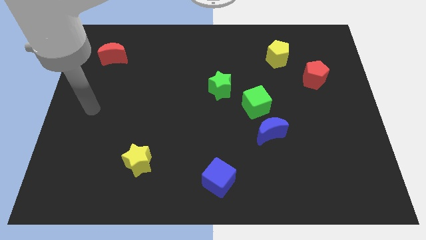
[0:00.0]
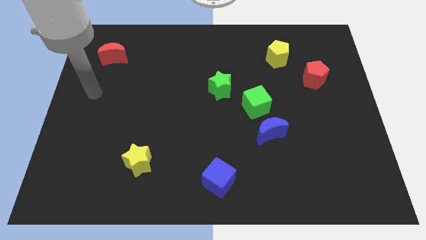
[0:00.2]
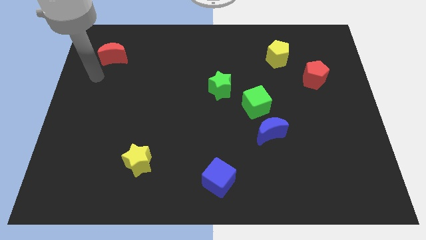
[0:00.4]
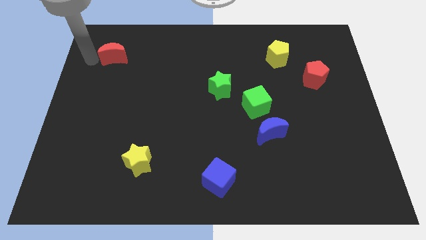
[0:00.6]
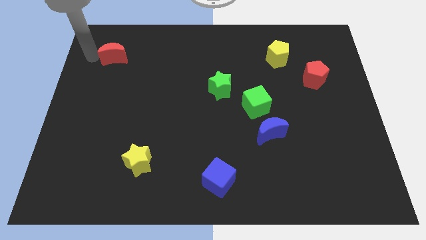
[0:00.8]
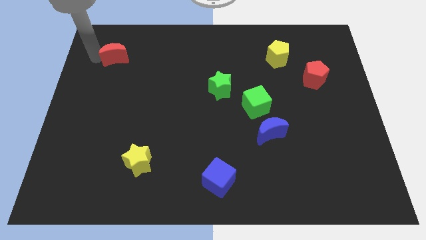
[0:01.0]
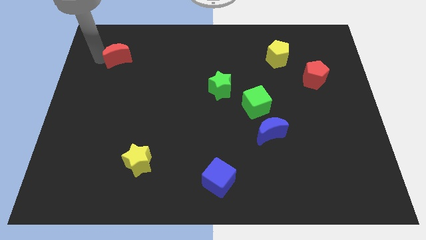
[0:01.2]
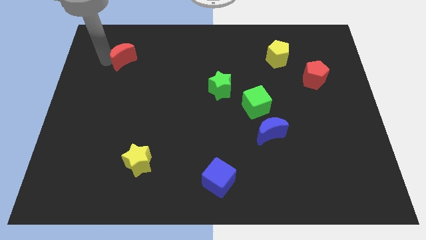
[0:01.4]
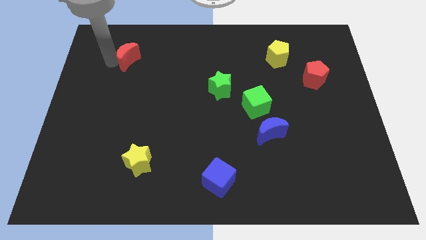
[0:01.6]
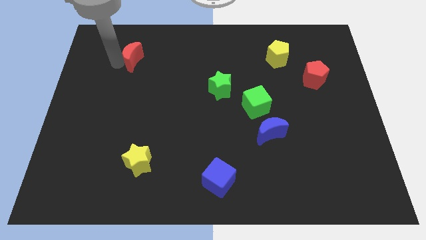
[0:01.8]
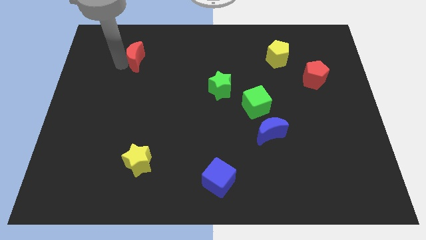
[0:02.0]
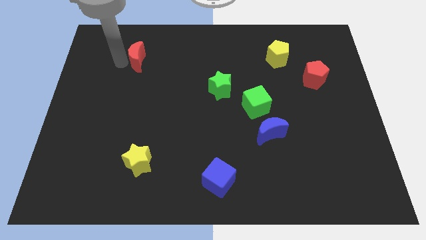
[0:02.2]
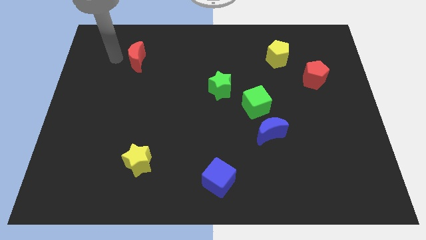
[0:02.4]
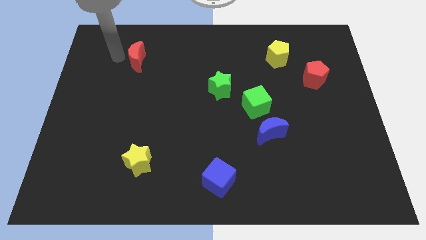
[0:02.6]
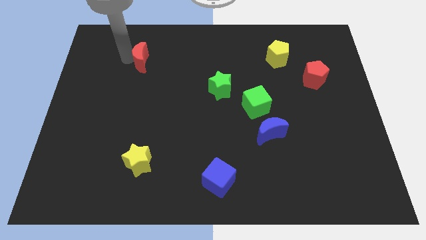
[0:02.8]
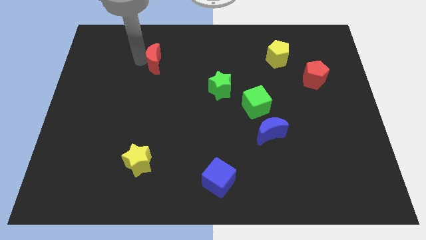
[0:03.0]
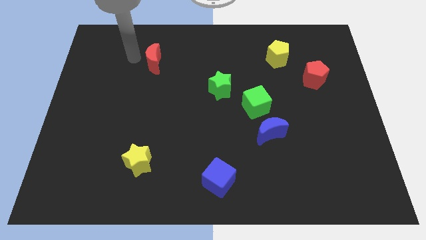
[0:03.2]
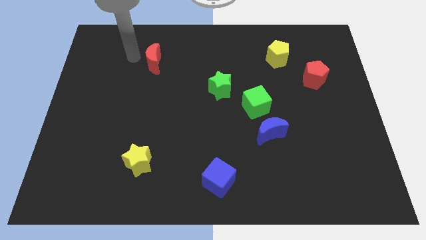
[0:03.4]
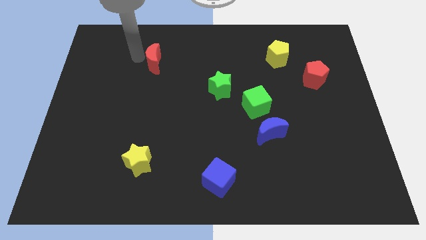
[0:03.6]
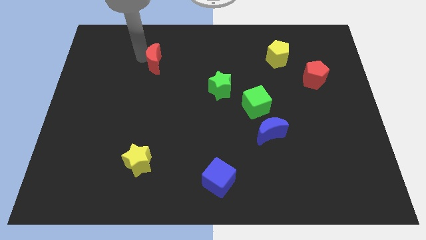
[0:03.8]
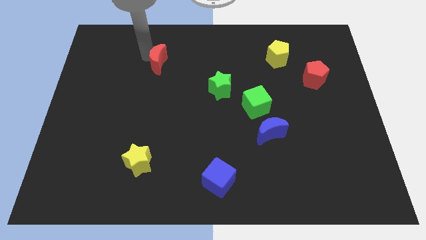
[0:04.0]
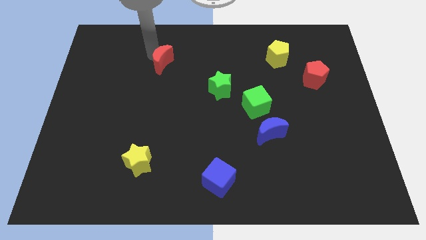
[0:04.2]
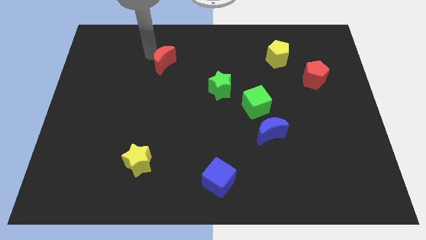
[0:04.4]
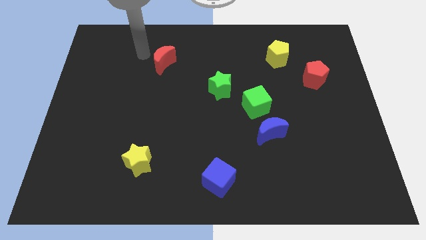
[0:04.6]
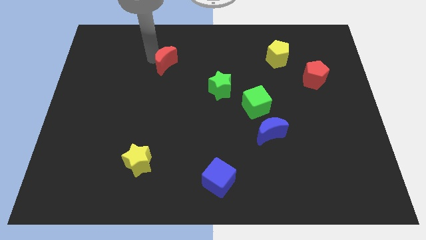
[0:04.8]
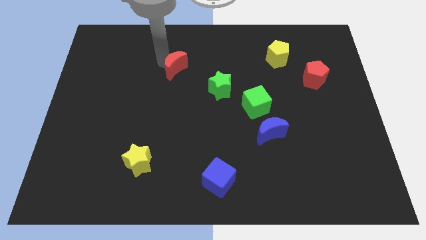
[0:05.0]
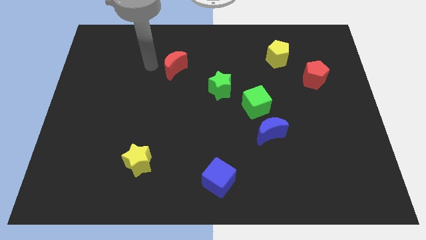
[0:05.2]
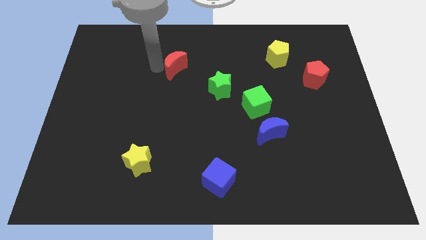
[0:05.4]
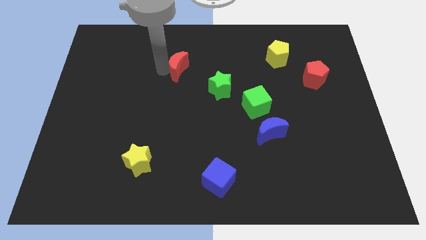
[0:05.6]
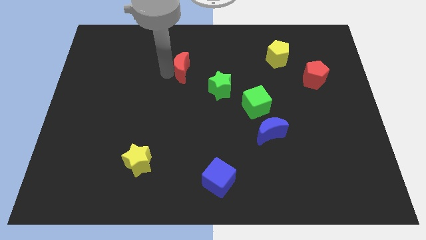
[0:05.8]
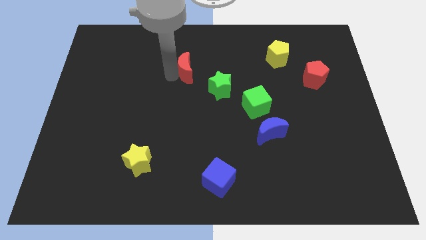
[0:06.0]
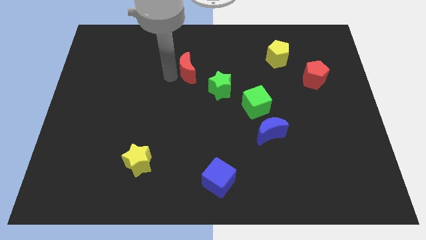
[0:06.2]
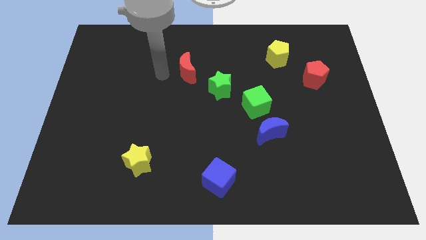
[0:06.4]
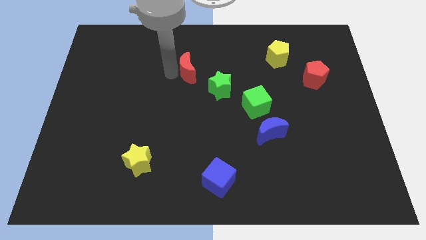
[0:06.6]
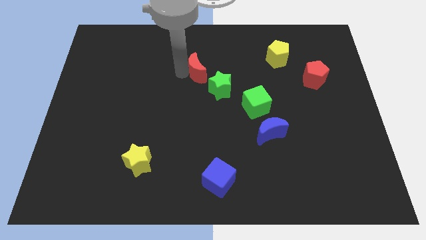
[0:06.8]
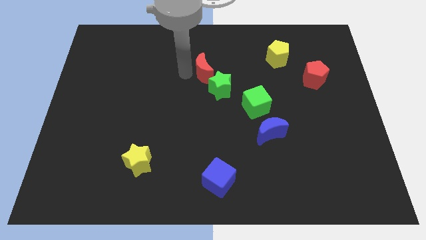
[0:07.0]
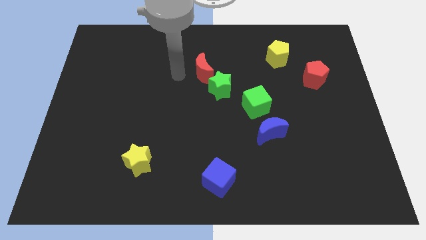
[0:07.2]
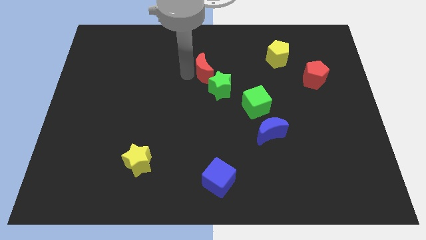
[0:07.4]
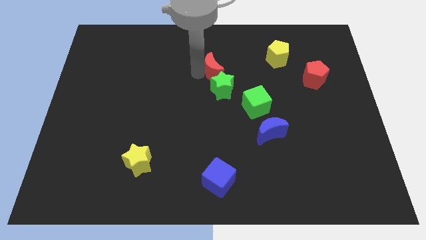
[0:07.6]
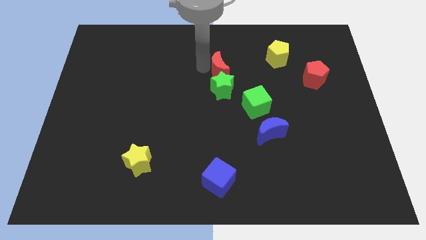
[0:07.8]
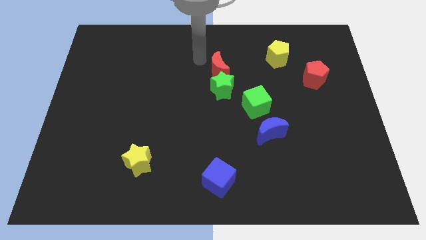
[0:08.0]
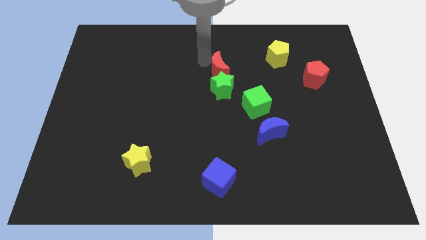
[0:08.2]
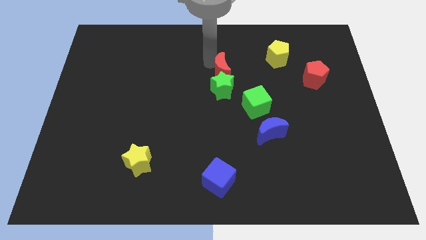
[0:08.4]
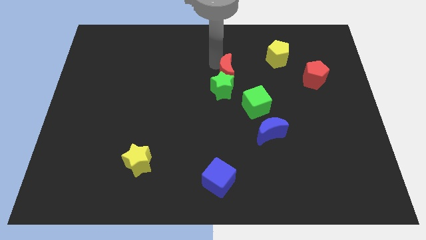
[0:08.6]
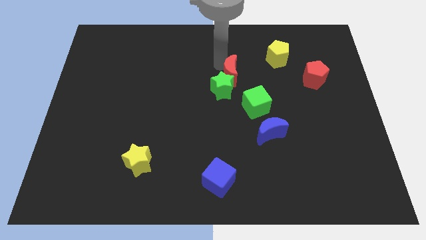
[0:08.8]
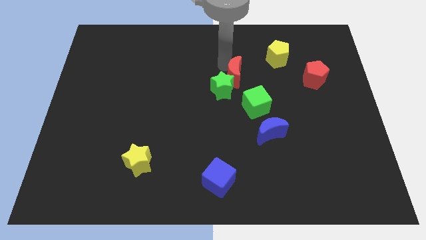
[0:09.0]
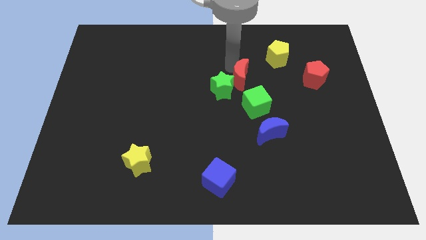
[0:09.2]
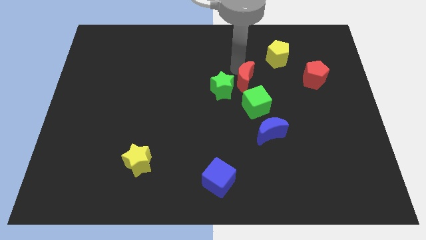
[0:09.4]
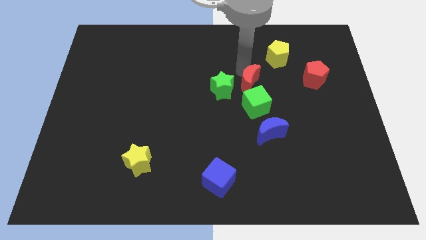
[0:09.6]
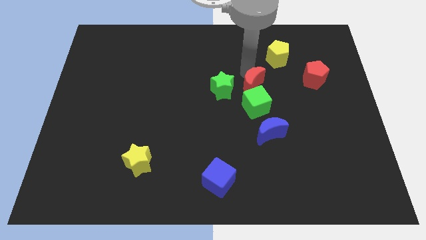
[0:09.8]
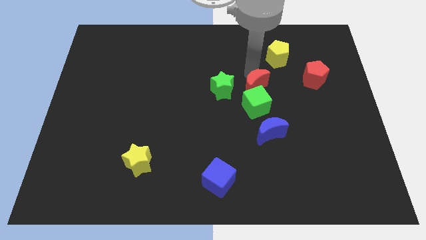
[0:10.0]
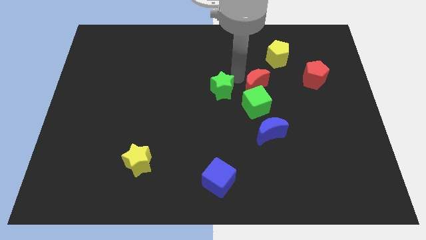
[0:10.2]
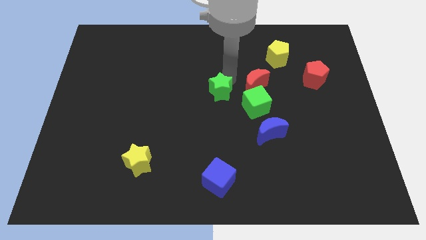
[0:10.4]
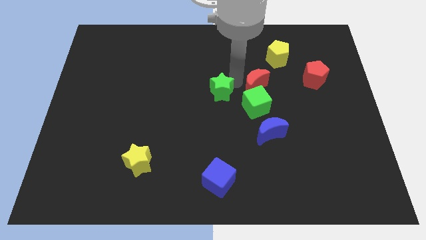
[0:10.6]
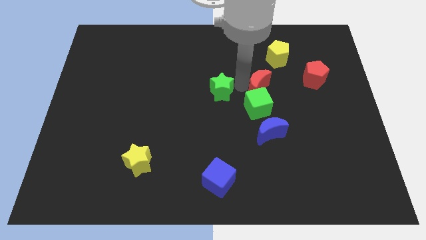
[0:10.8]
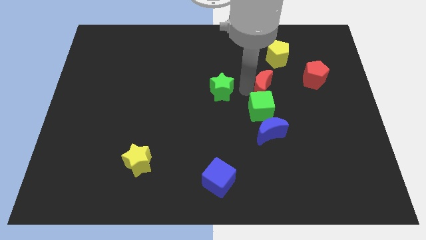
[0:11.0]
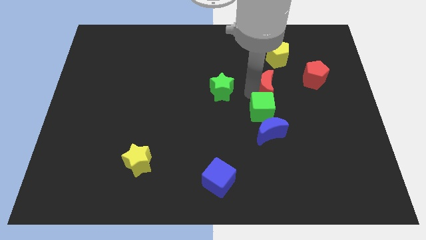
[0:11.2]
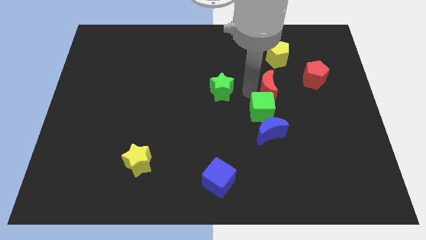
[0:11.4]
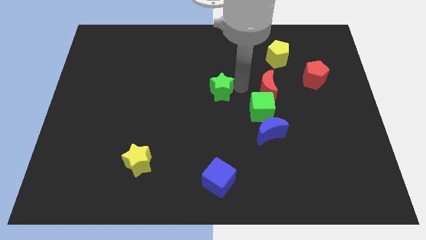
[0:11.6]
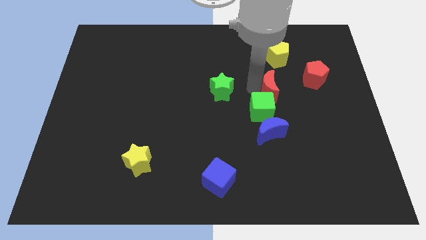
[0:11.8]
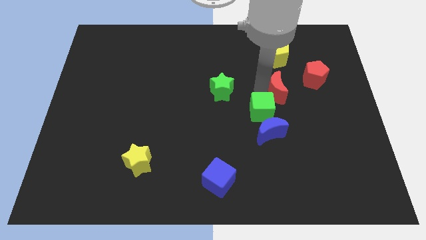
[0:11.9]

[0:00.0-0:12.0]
push the red moon to the bottom left of the red pentagon
